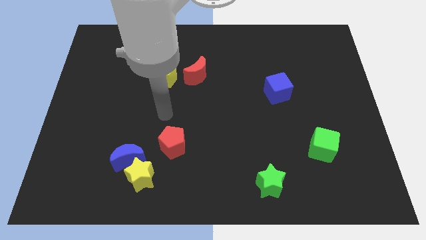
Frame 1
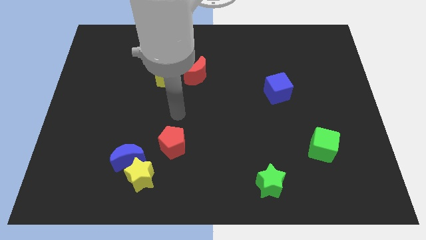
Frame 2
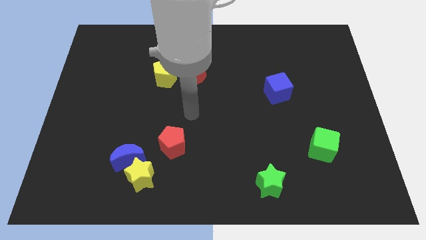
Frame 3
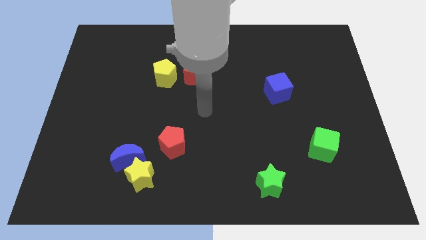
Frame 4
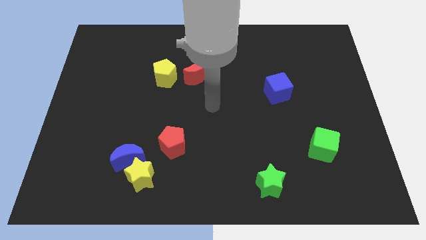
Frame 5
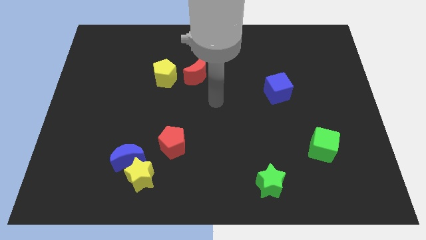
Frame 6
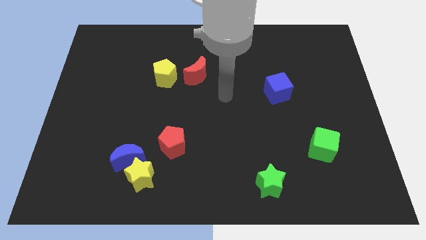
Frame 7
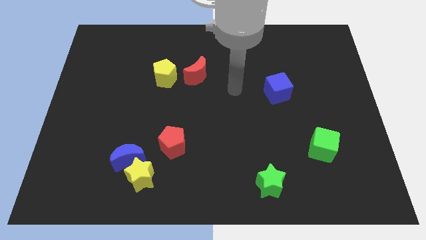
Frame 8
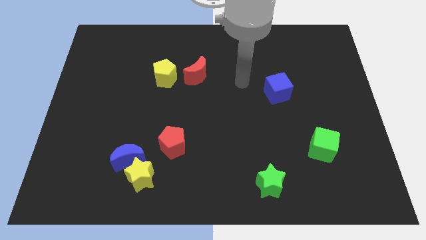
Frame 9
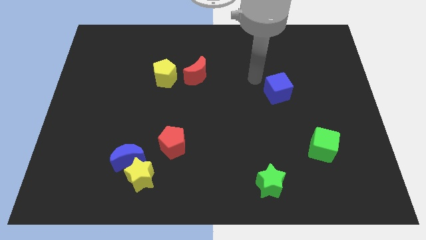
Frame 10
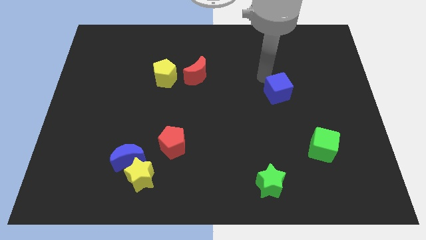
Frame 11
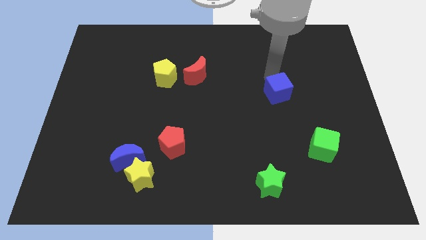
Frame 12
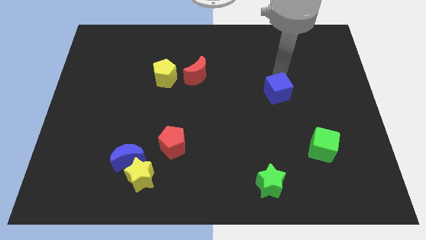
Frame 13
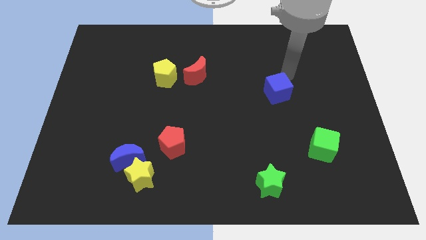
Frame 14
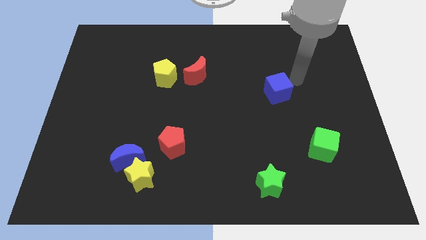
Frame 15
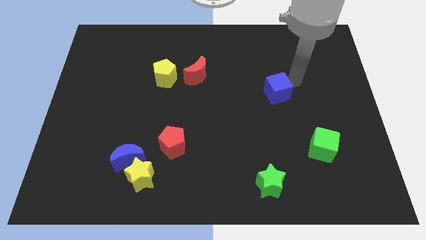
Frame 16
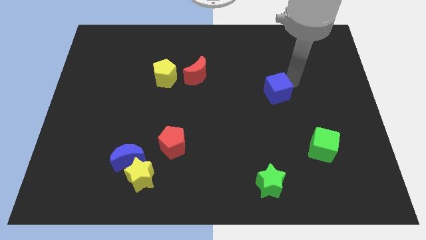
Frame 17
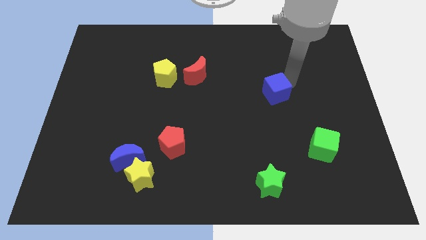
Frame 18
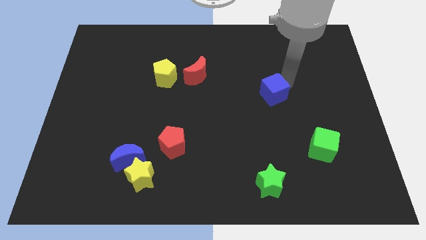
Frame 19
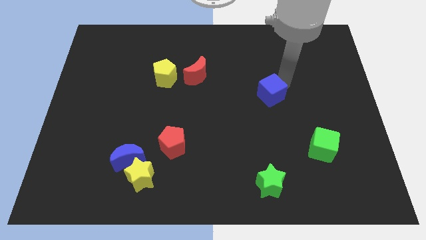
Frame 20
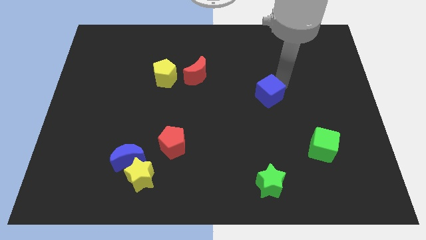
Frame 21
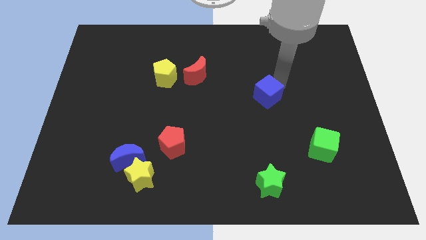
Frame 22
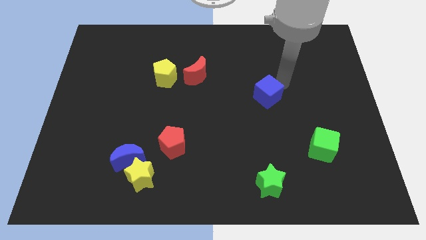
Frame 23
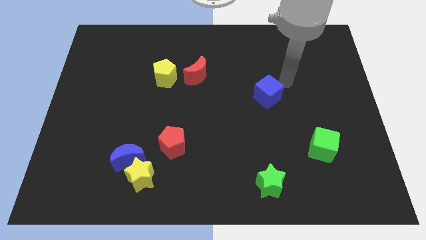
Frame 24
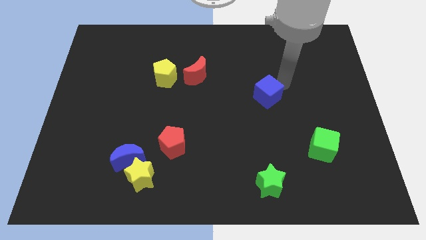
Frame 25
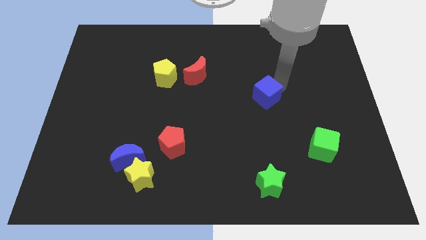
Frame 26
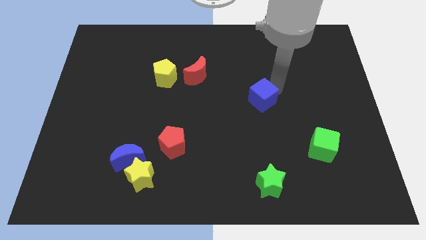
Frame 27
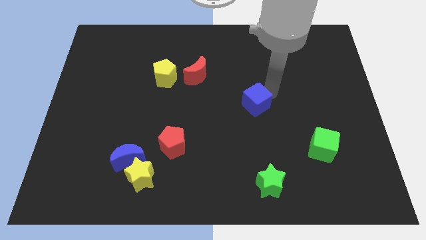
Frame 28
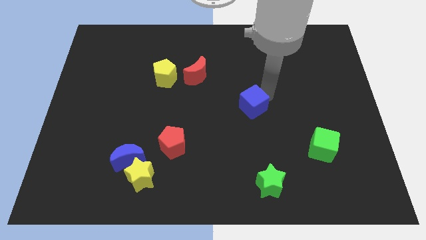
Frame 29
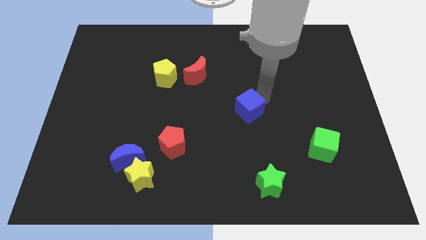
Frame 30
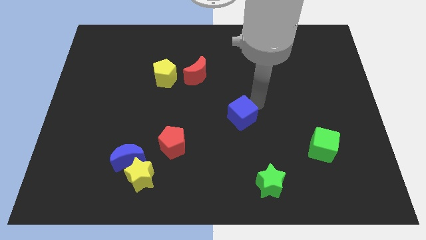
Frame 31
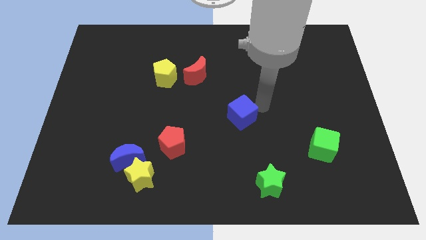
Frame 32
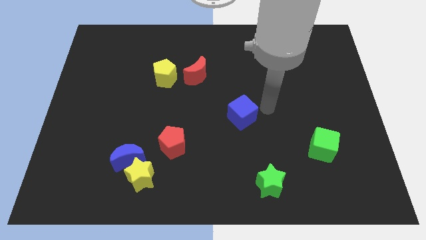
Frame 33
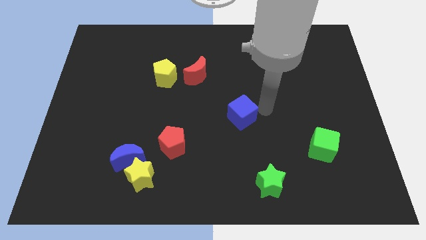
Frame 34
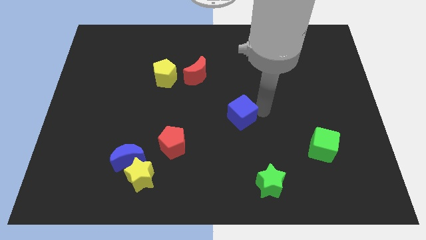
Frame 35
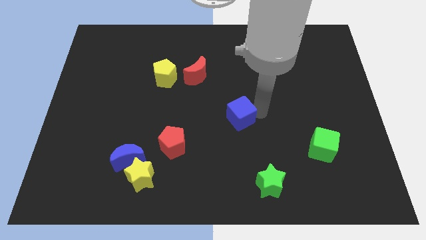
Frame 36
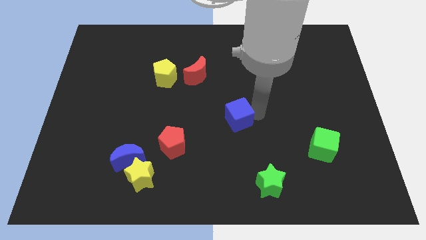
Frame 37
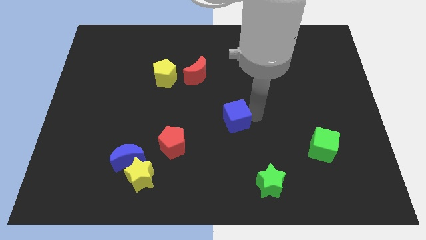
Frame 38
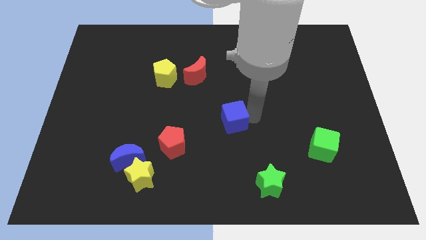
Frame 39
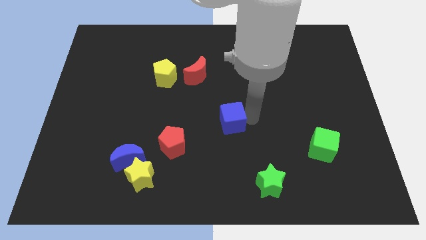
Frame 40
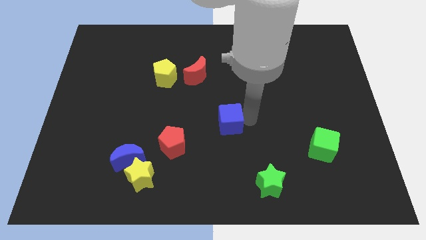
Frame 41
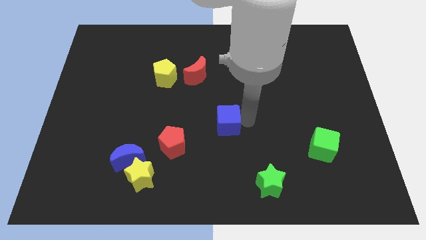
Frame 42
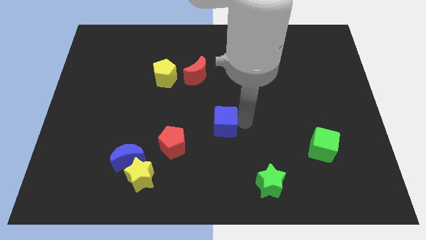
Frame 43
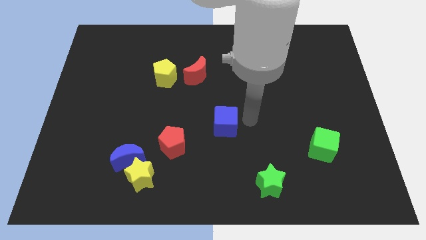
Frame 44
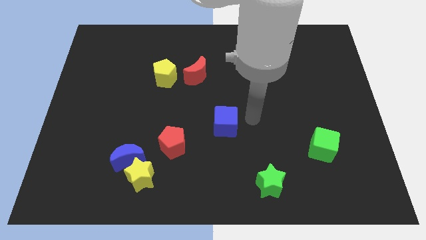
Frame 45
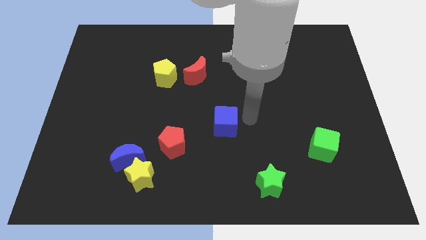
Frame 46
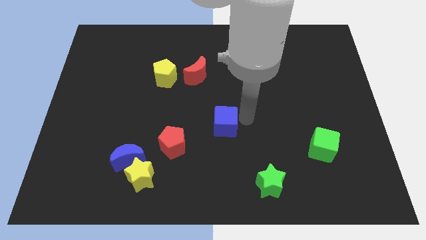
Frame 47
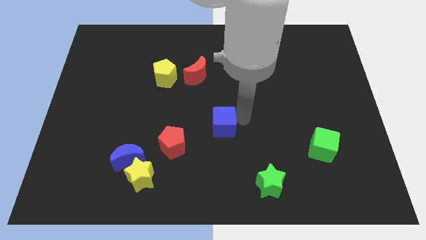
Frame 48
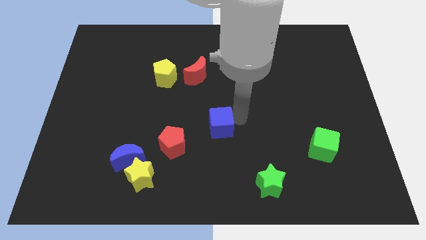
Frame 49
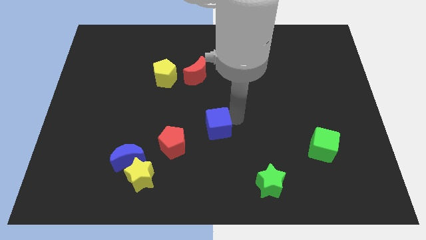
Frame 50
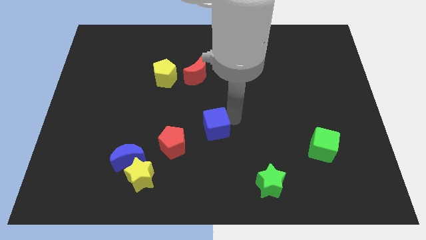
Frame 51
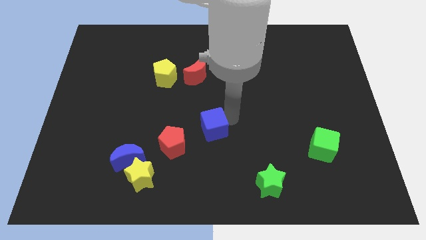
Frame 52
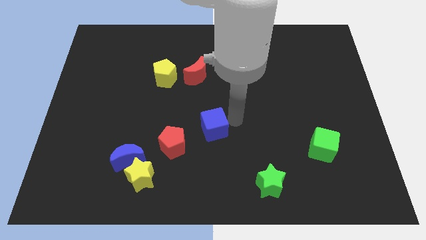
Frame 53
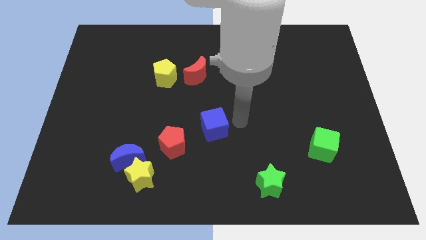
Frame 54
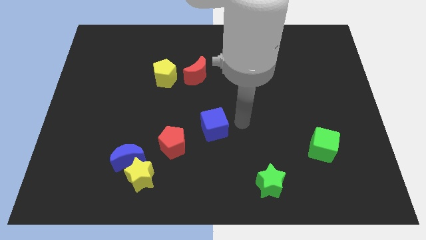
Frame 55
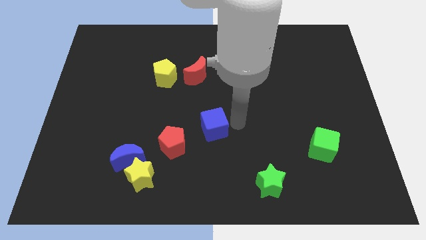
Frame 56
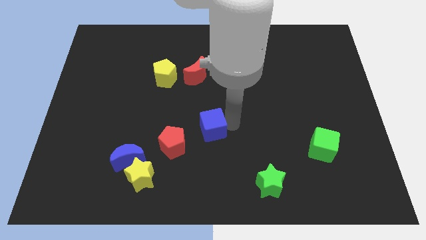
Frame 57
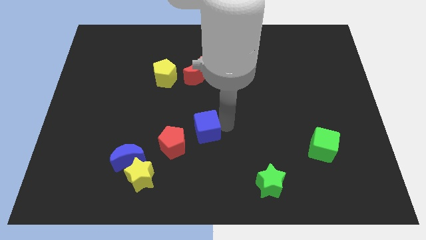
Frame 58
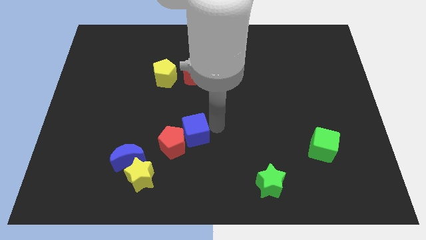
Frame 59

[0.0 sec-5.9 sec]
put the blue cube to the red pentagon

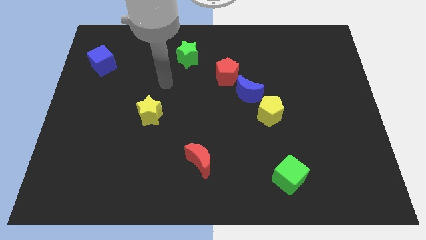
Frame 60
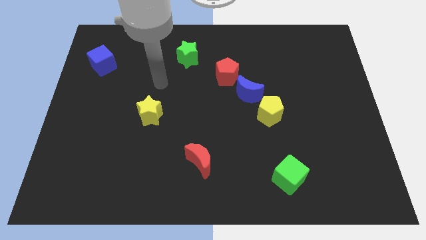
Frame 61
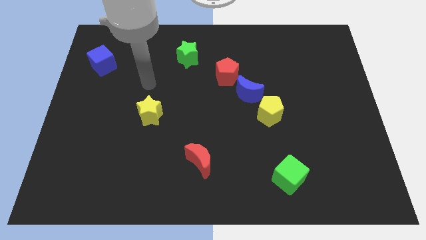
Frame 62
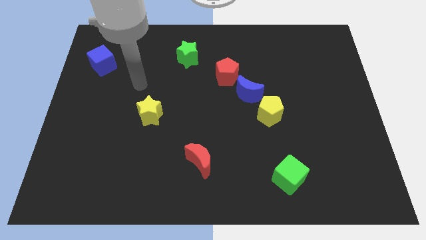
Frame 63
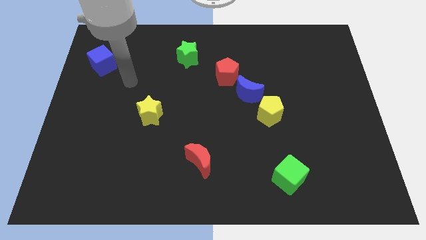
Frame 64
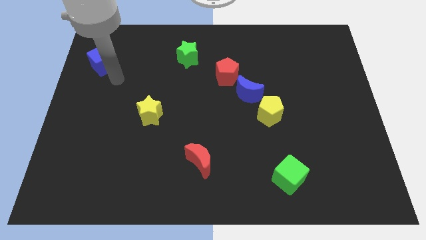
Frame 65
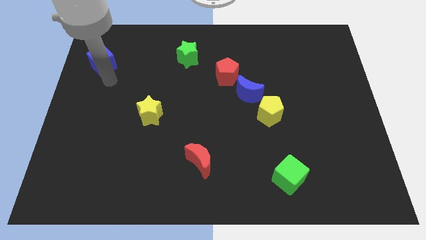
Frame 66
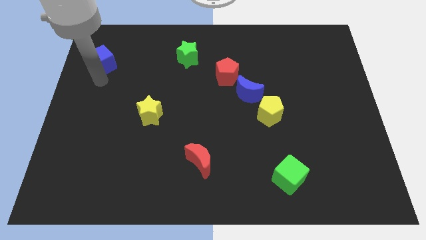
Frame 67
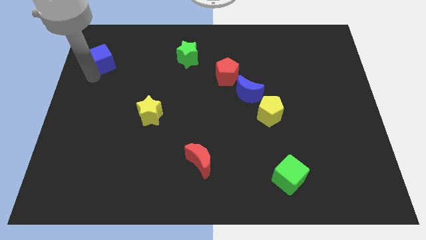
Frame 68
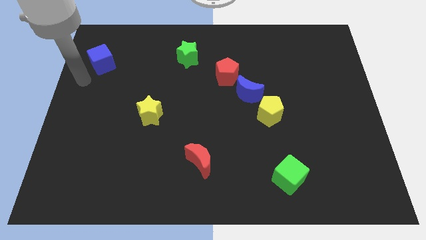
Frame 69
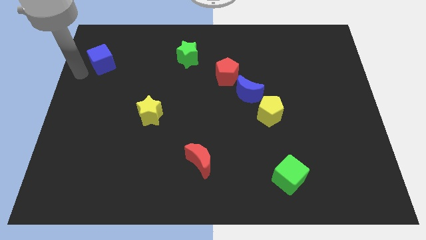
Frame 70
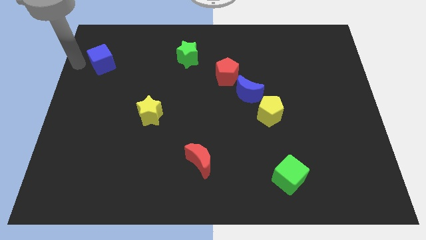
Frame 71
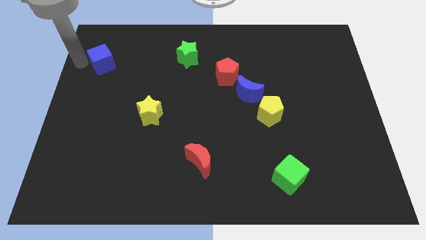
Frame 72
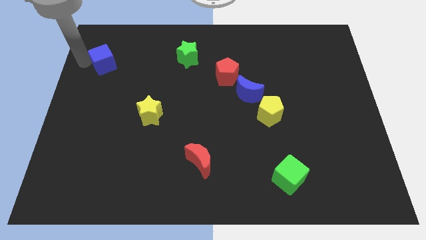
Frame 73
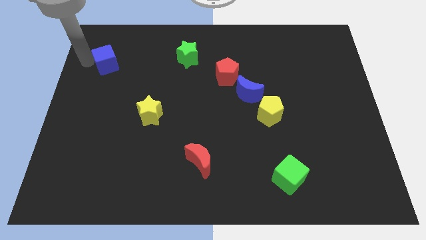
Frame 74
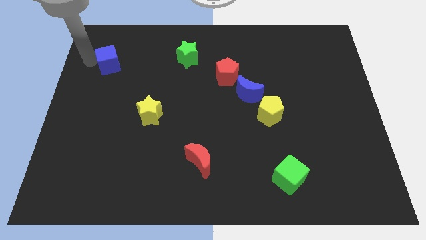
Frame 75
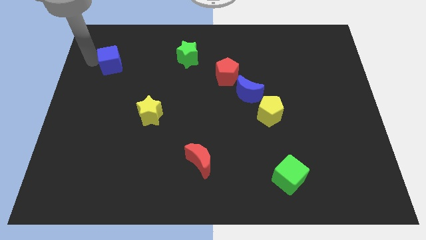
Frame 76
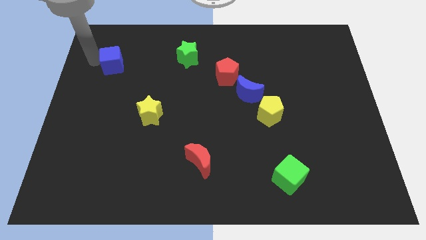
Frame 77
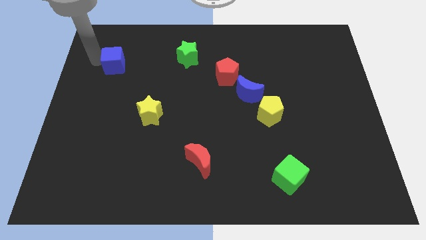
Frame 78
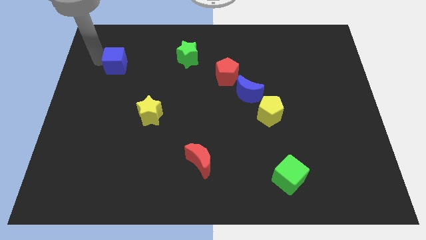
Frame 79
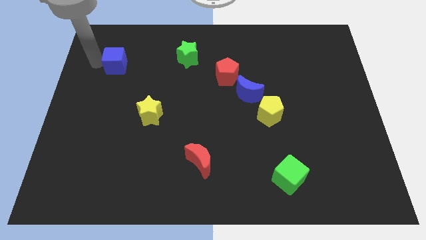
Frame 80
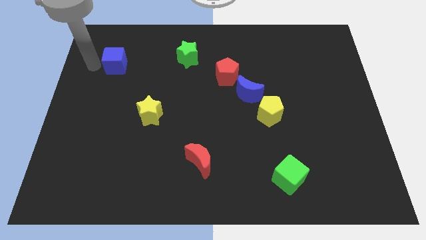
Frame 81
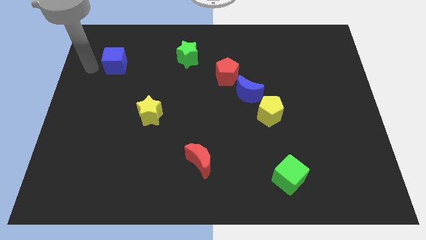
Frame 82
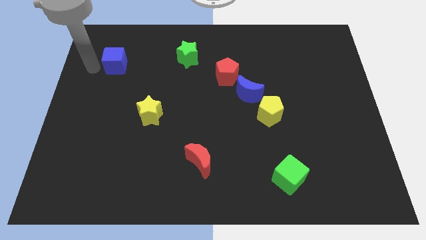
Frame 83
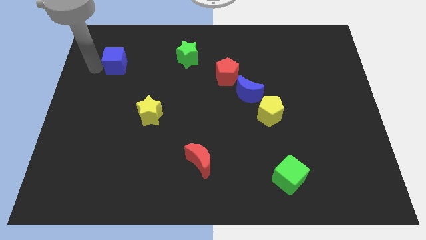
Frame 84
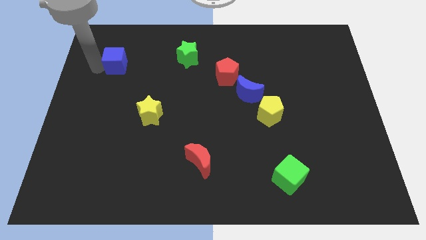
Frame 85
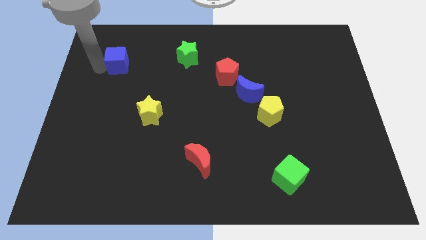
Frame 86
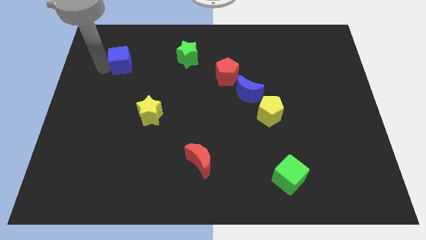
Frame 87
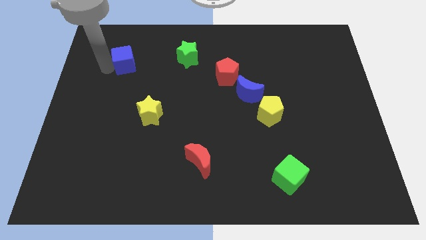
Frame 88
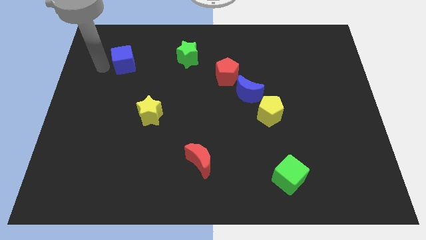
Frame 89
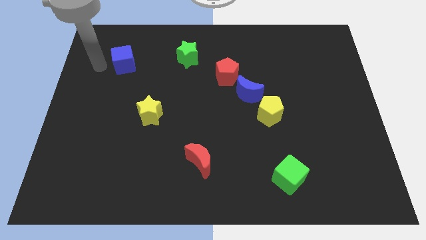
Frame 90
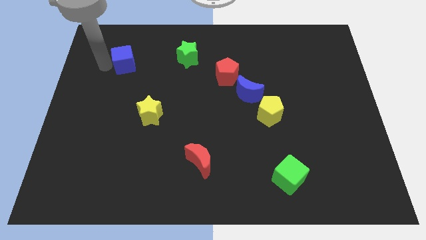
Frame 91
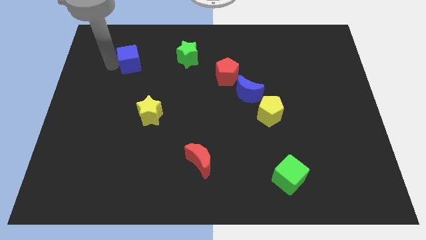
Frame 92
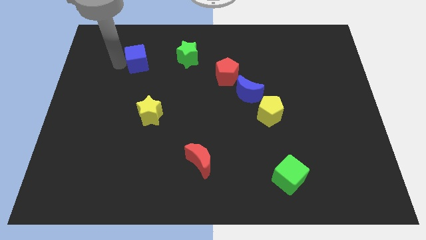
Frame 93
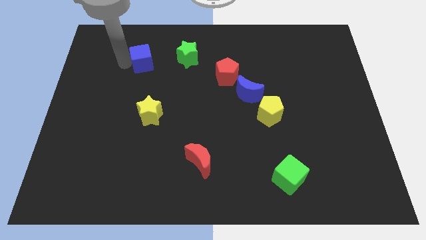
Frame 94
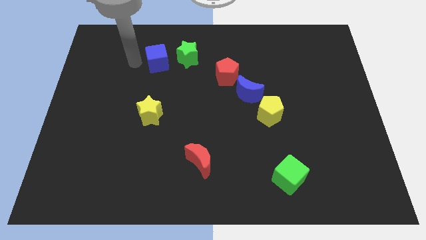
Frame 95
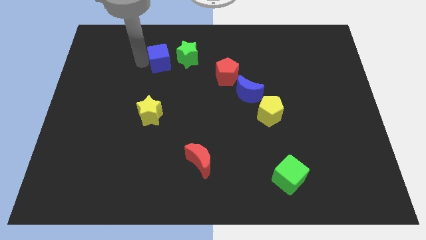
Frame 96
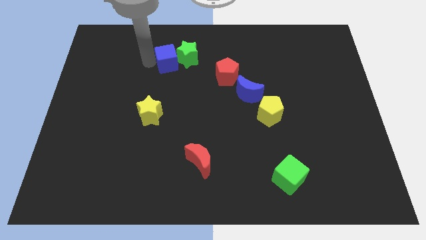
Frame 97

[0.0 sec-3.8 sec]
move the blue cube towards the green star
